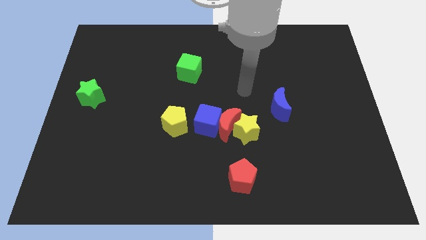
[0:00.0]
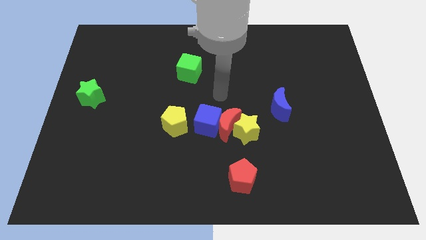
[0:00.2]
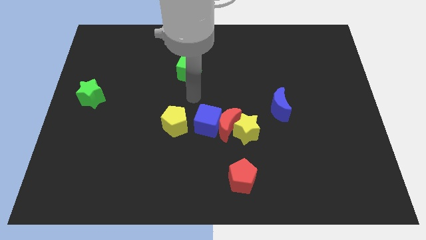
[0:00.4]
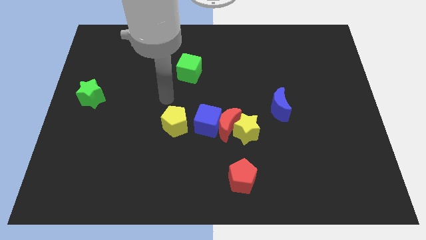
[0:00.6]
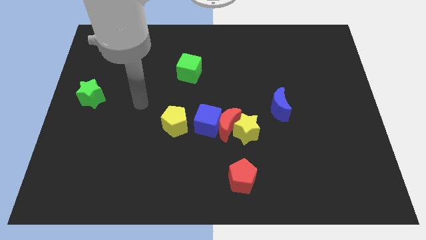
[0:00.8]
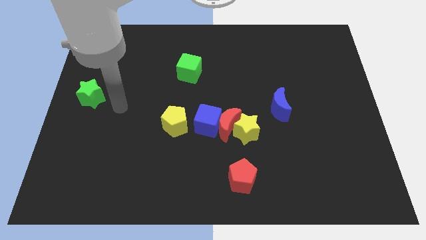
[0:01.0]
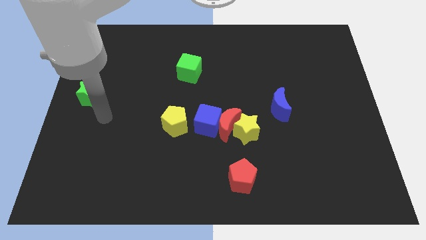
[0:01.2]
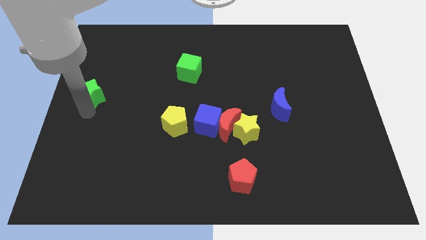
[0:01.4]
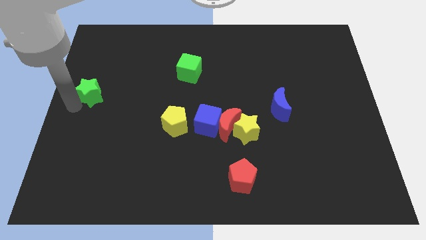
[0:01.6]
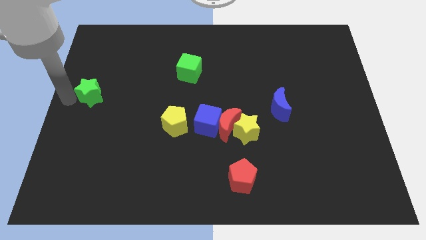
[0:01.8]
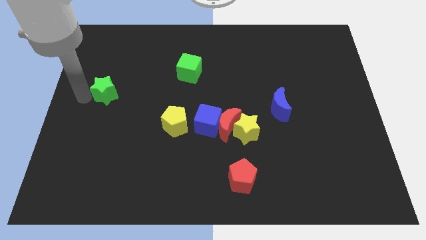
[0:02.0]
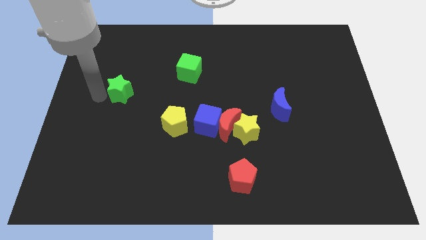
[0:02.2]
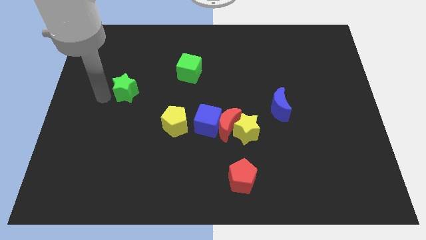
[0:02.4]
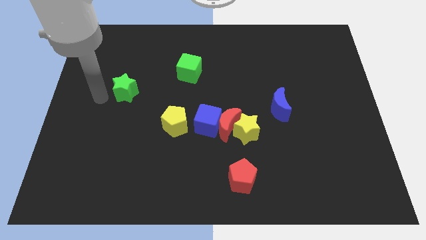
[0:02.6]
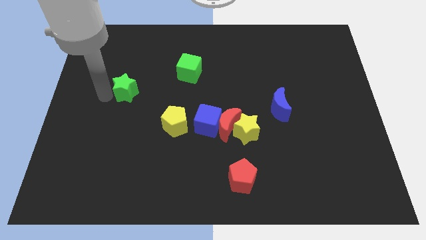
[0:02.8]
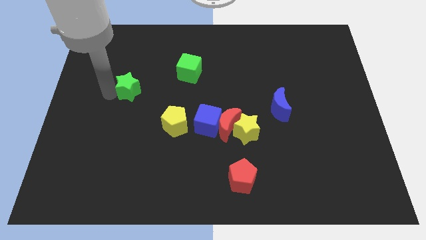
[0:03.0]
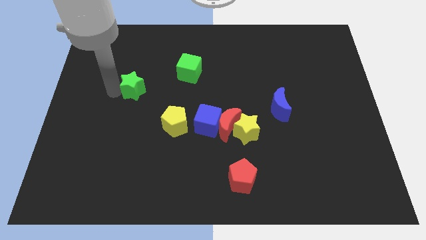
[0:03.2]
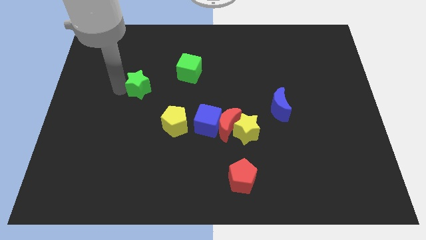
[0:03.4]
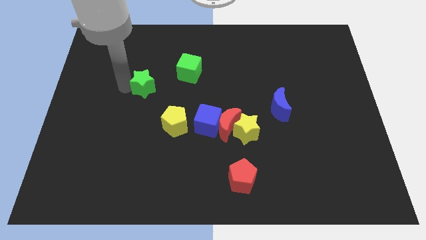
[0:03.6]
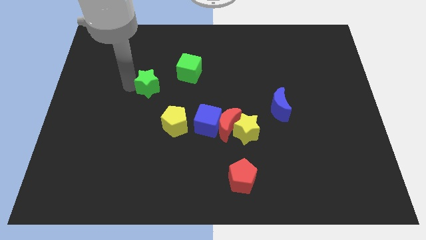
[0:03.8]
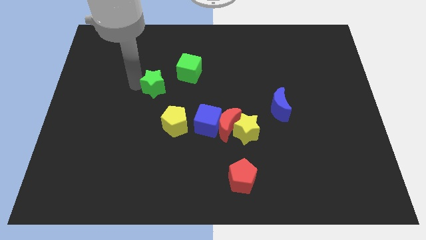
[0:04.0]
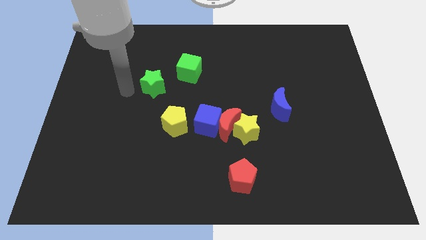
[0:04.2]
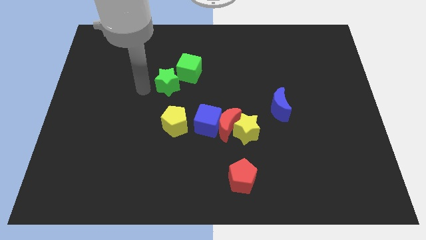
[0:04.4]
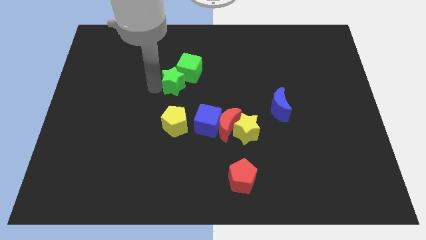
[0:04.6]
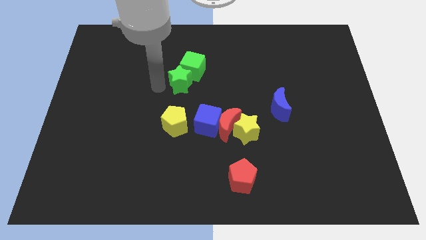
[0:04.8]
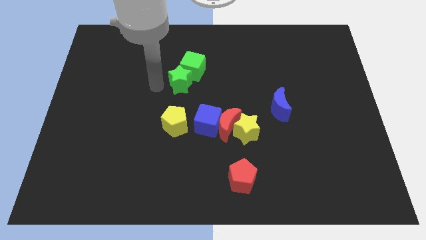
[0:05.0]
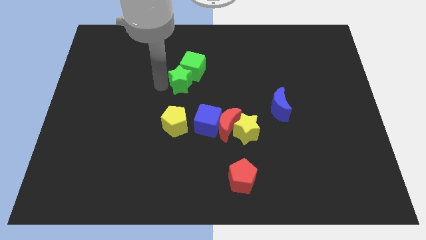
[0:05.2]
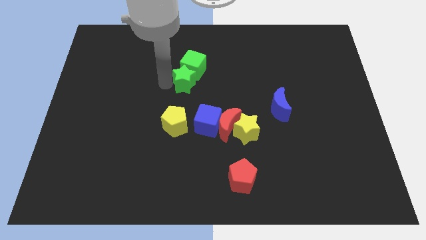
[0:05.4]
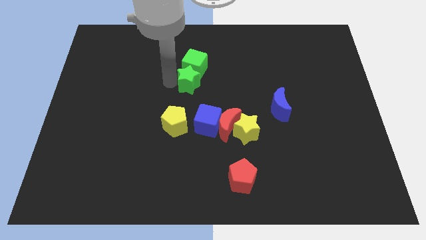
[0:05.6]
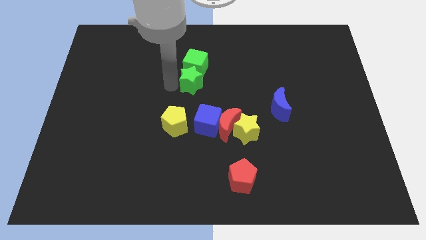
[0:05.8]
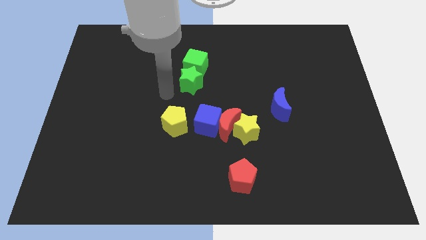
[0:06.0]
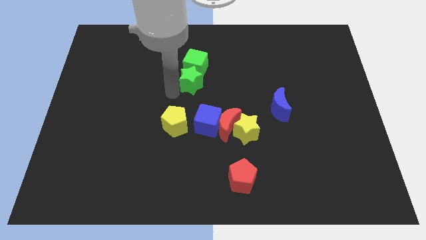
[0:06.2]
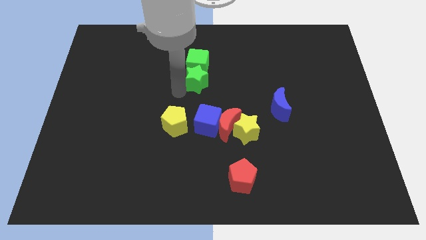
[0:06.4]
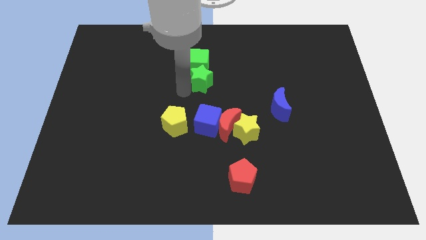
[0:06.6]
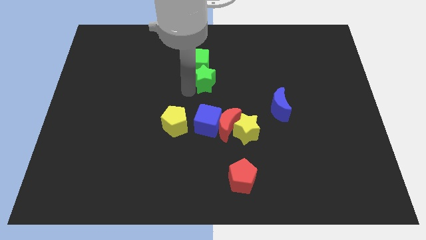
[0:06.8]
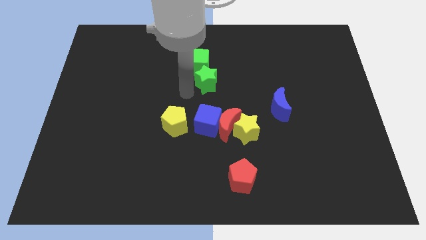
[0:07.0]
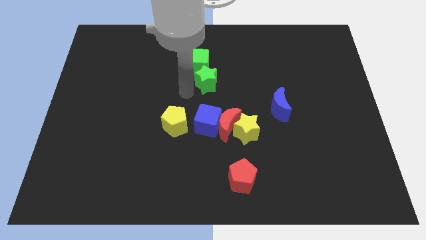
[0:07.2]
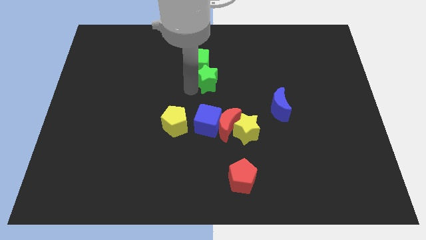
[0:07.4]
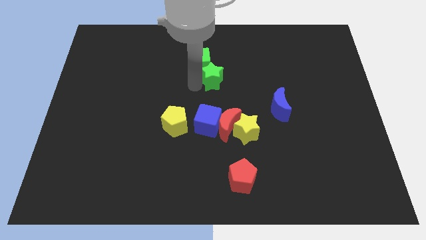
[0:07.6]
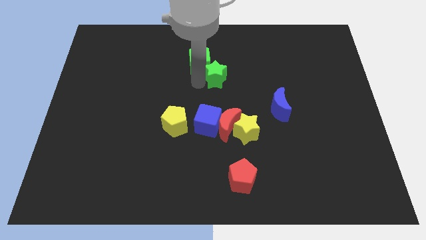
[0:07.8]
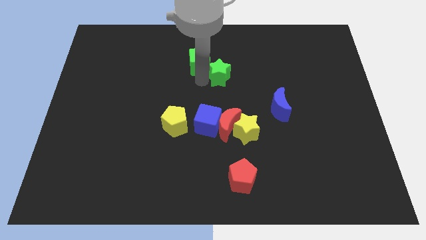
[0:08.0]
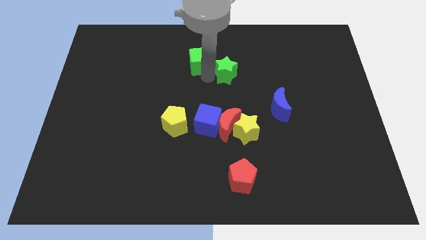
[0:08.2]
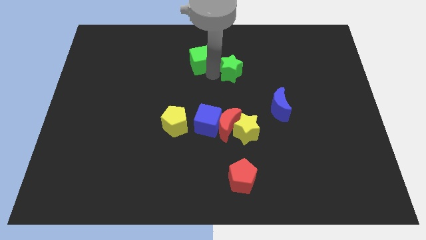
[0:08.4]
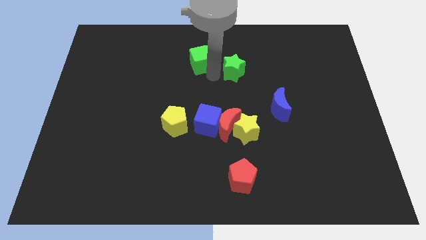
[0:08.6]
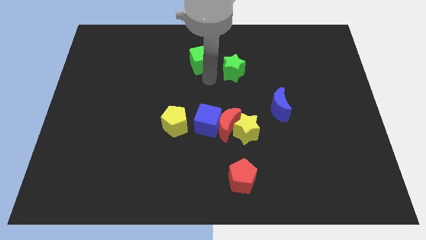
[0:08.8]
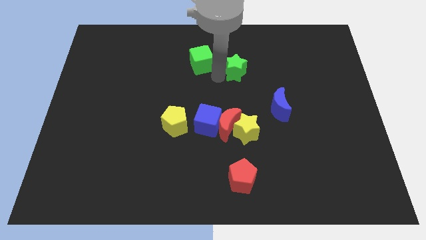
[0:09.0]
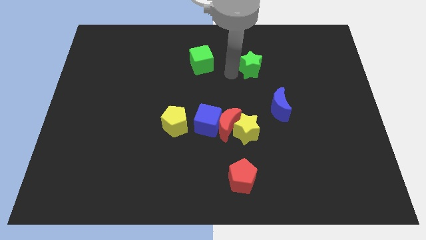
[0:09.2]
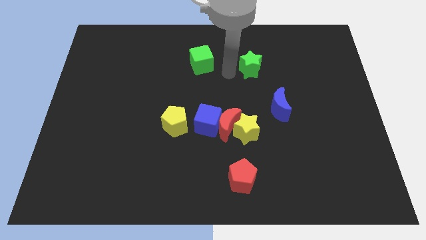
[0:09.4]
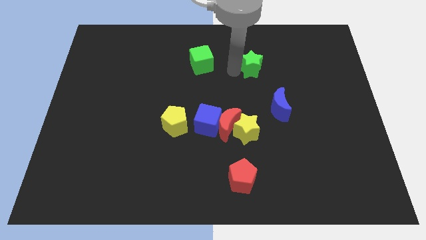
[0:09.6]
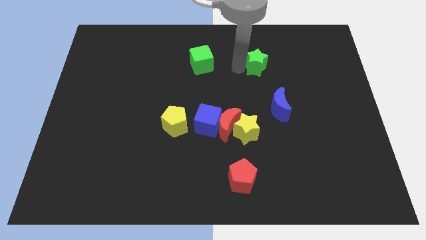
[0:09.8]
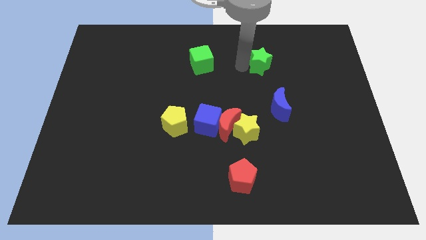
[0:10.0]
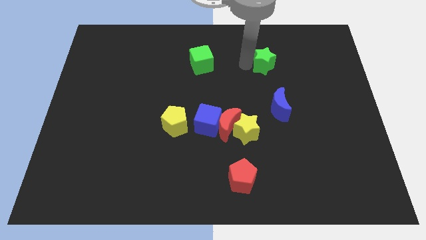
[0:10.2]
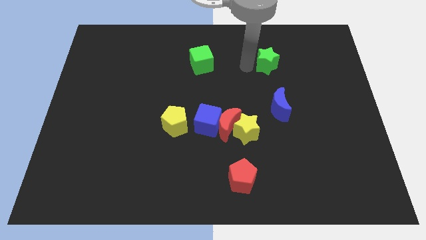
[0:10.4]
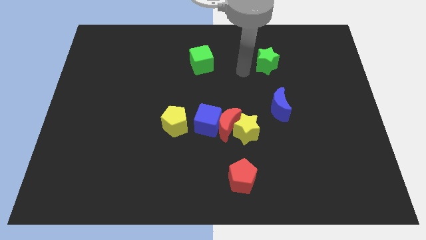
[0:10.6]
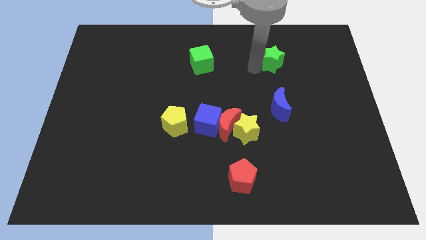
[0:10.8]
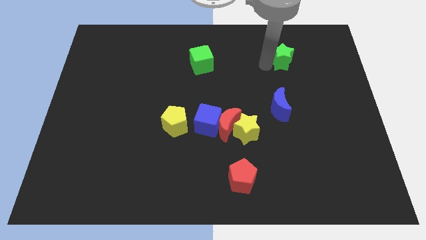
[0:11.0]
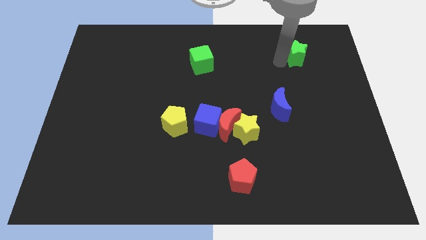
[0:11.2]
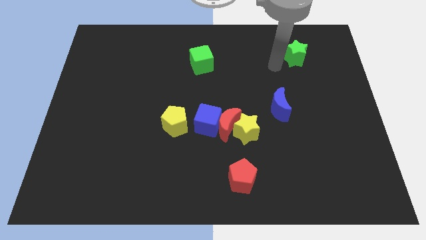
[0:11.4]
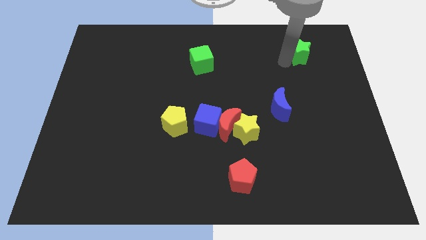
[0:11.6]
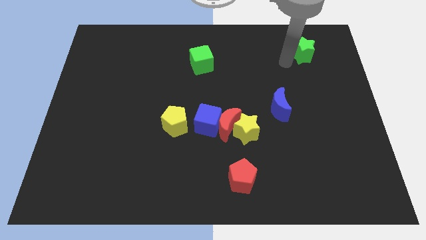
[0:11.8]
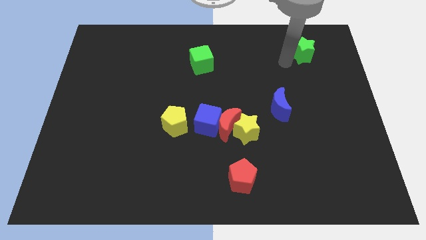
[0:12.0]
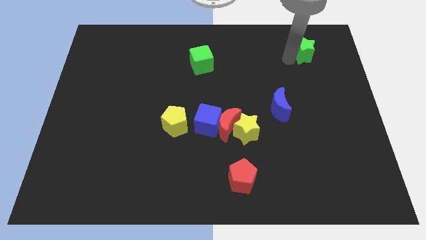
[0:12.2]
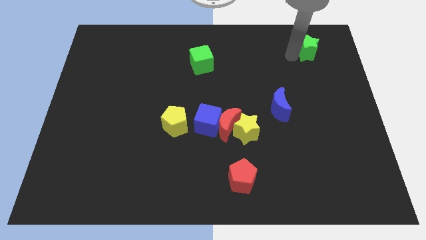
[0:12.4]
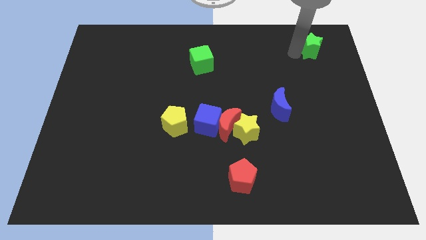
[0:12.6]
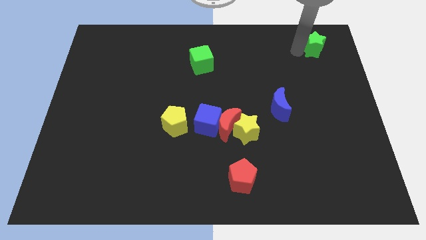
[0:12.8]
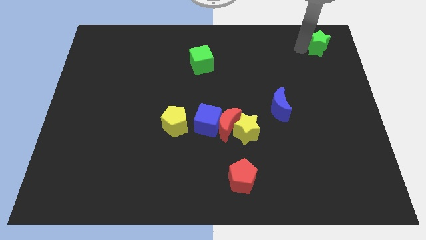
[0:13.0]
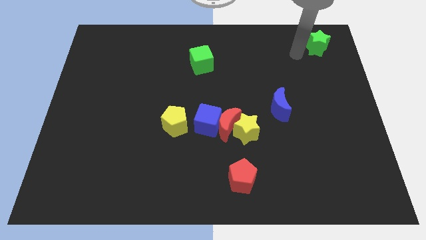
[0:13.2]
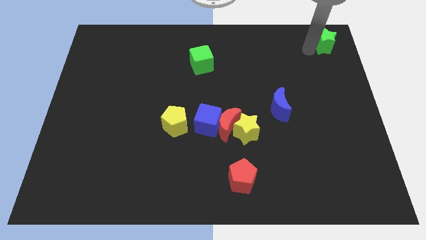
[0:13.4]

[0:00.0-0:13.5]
put the green star to the top right
